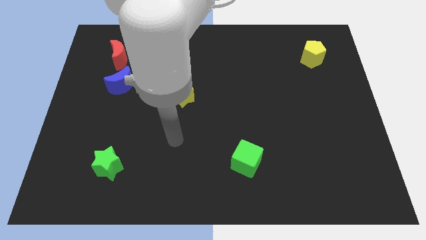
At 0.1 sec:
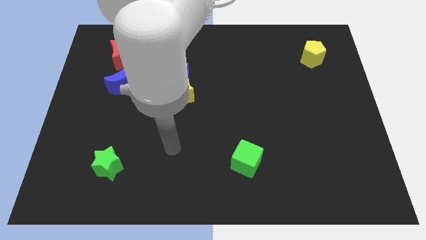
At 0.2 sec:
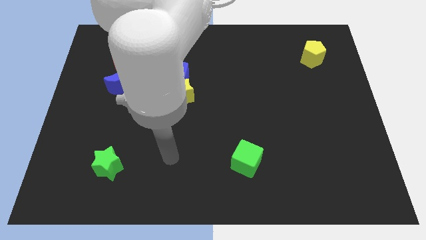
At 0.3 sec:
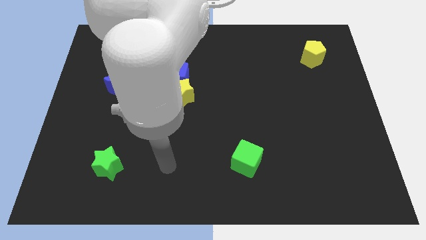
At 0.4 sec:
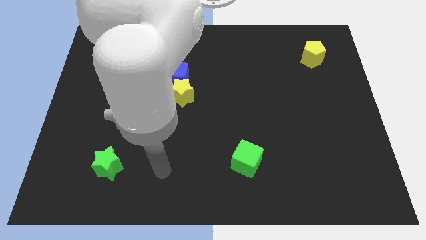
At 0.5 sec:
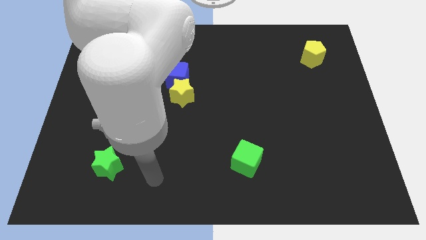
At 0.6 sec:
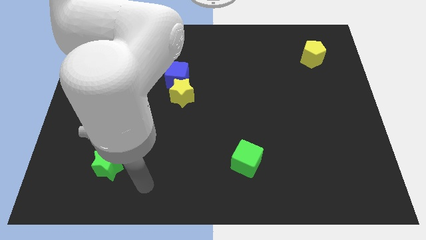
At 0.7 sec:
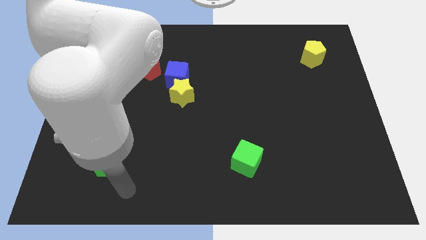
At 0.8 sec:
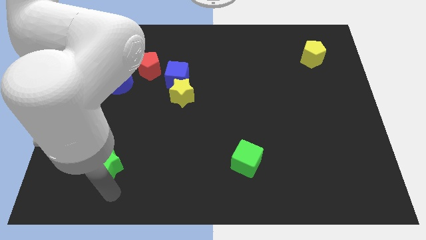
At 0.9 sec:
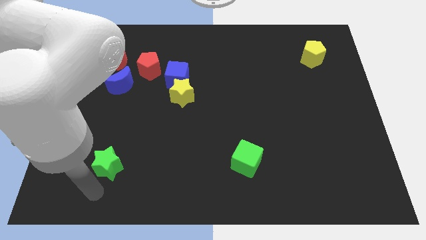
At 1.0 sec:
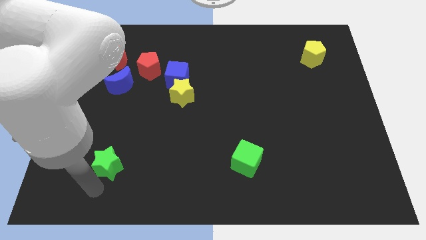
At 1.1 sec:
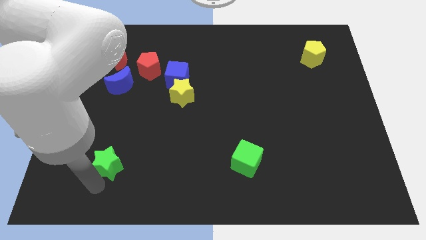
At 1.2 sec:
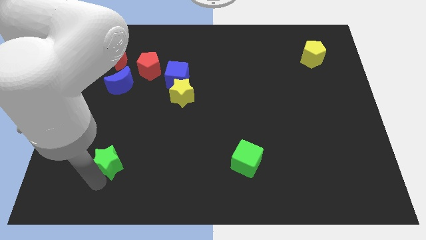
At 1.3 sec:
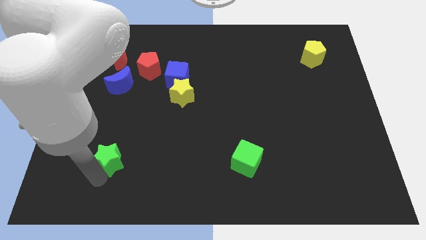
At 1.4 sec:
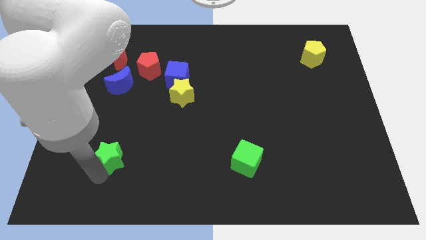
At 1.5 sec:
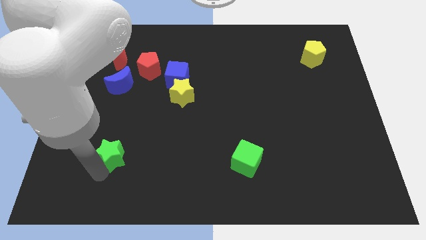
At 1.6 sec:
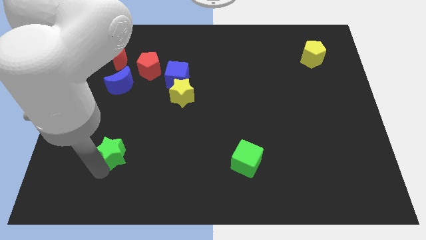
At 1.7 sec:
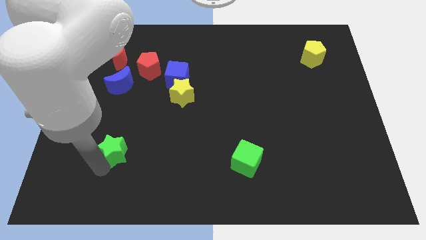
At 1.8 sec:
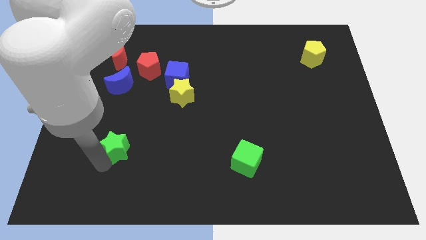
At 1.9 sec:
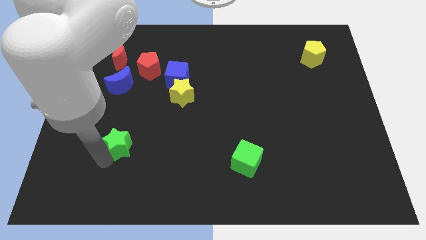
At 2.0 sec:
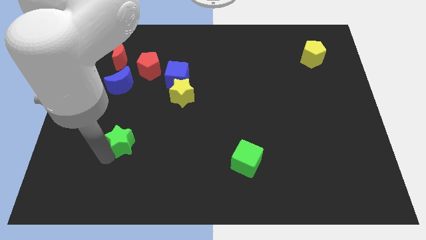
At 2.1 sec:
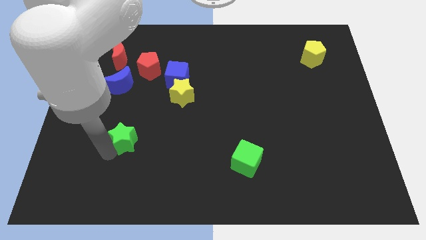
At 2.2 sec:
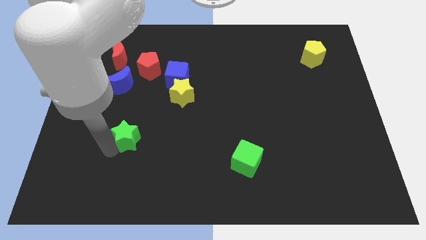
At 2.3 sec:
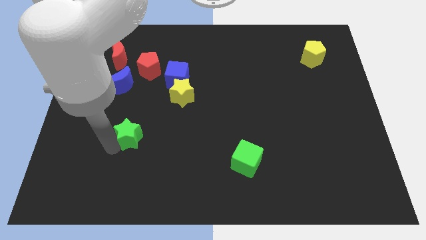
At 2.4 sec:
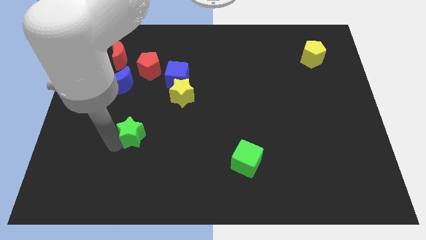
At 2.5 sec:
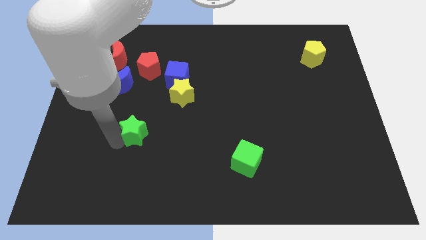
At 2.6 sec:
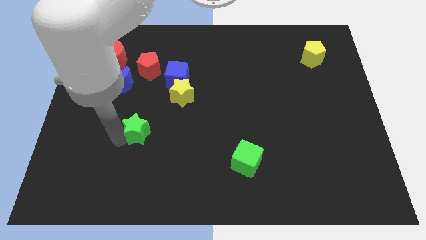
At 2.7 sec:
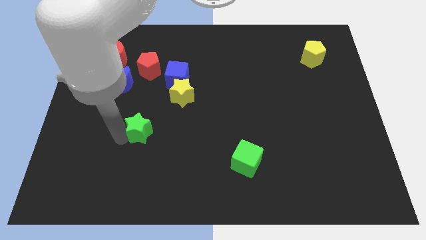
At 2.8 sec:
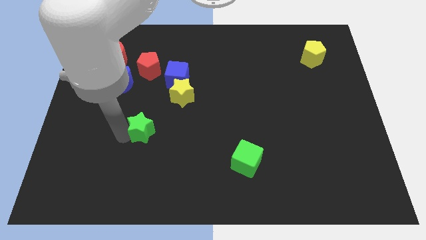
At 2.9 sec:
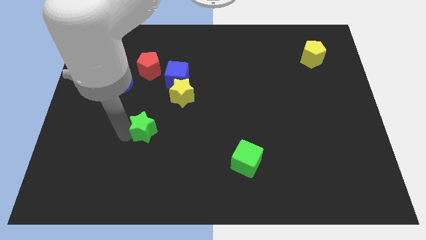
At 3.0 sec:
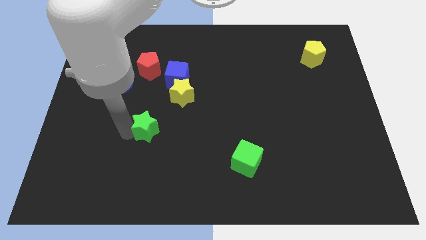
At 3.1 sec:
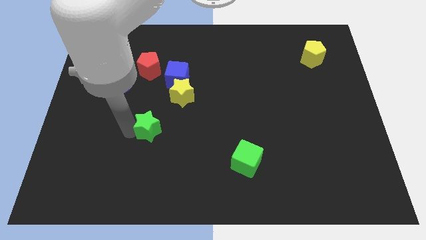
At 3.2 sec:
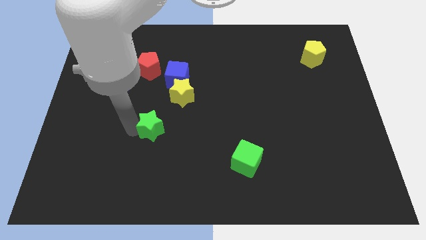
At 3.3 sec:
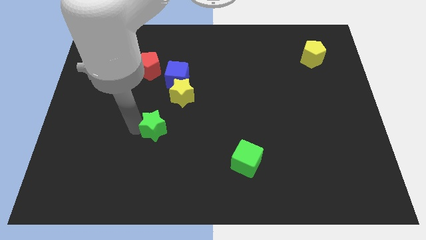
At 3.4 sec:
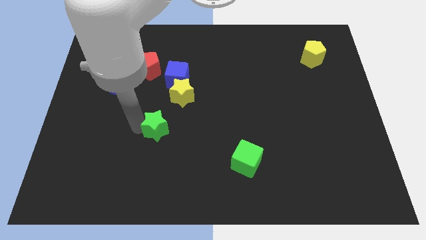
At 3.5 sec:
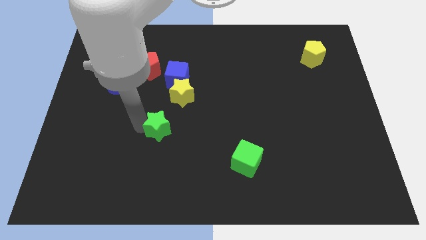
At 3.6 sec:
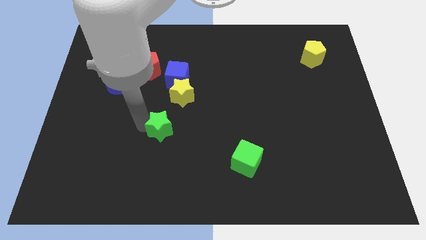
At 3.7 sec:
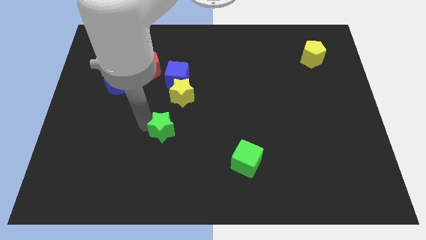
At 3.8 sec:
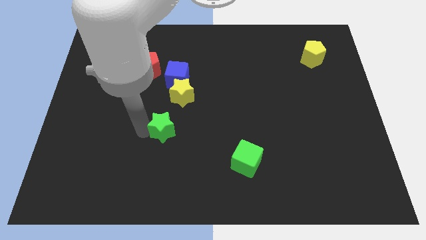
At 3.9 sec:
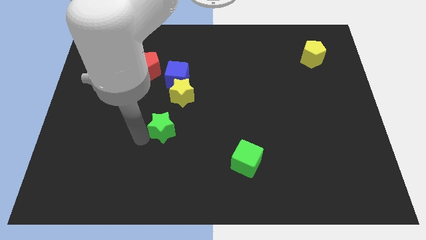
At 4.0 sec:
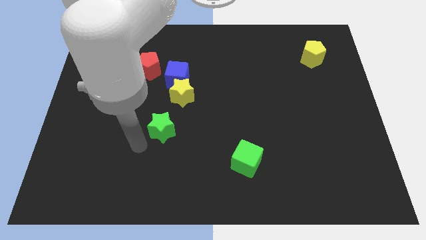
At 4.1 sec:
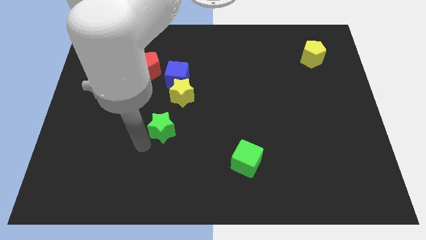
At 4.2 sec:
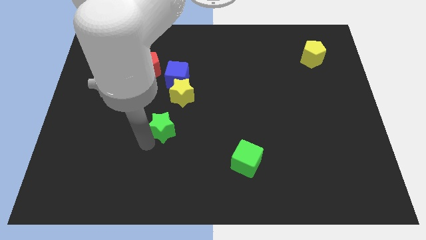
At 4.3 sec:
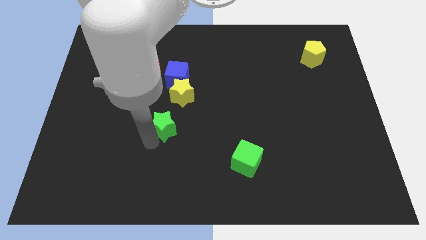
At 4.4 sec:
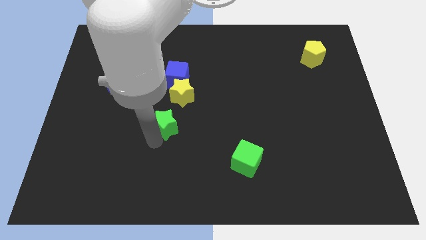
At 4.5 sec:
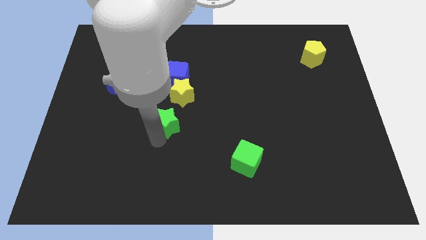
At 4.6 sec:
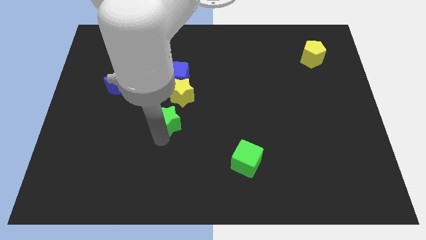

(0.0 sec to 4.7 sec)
push the green star to the middle of the board

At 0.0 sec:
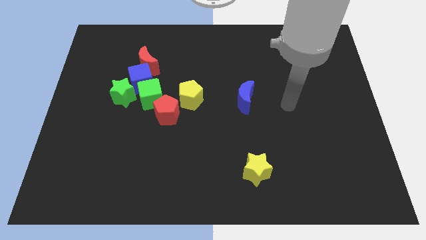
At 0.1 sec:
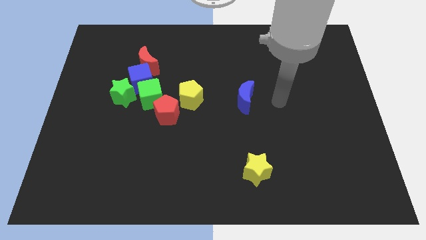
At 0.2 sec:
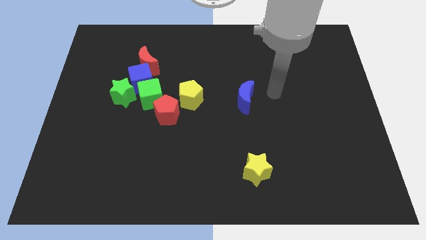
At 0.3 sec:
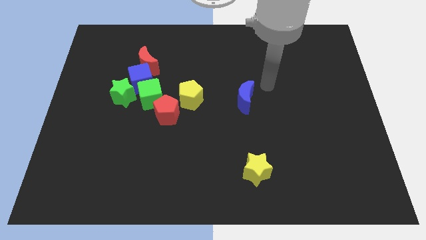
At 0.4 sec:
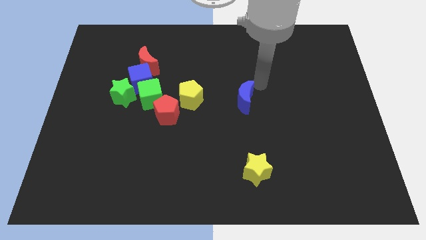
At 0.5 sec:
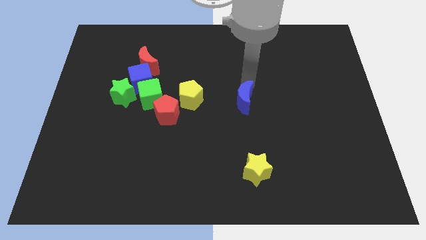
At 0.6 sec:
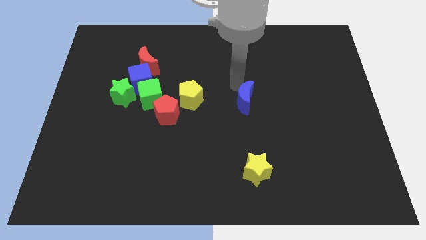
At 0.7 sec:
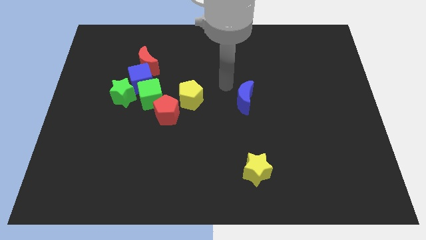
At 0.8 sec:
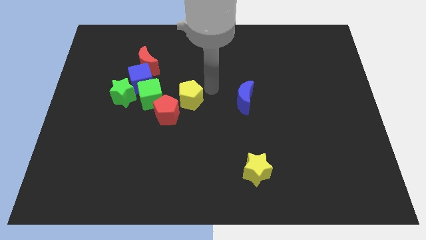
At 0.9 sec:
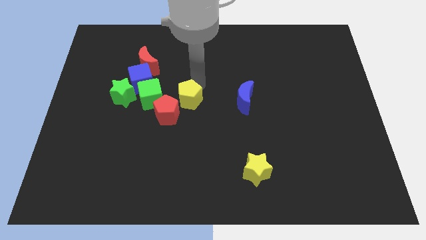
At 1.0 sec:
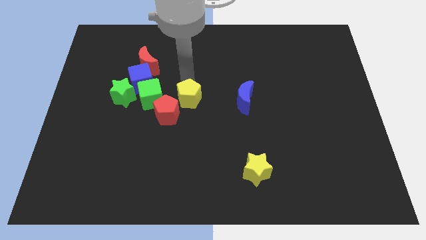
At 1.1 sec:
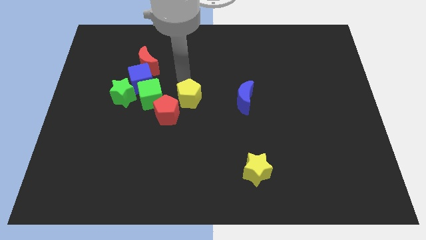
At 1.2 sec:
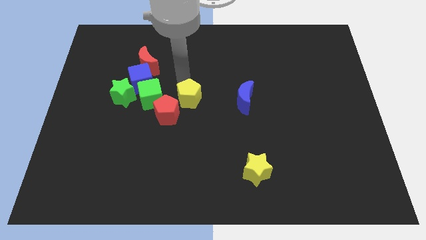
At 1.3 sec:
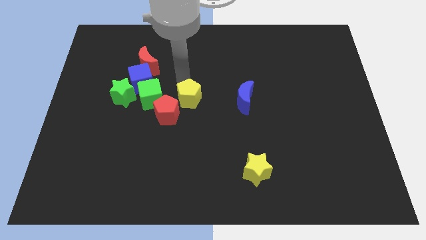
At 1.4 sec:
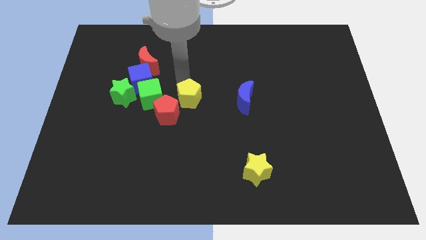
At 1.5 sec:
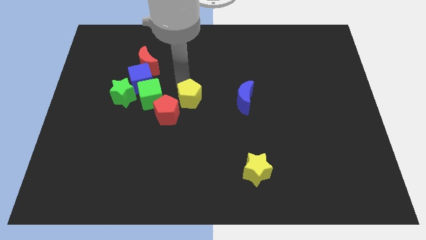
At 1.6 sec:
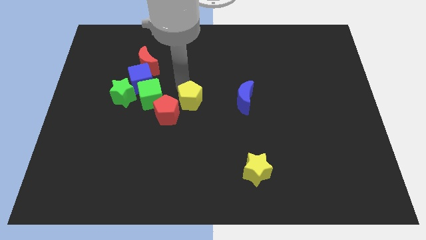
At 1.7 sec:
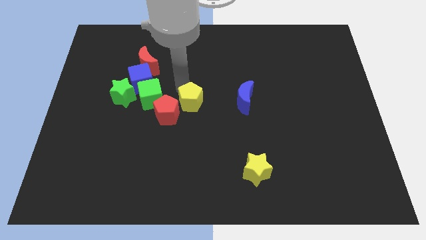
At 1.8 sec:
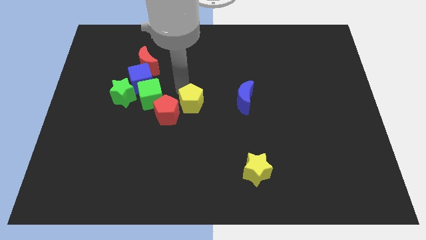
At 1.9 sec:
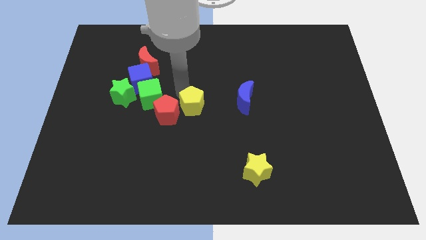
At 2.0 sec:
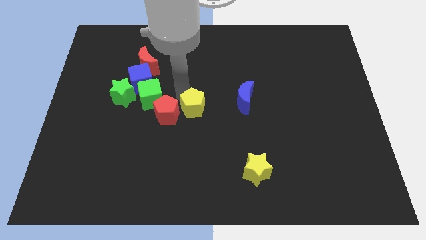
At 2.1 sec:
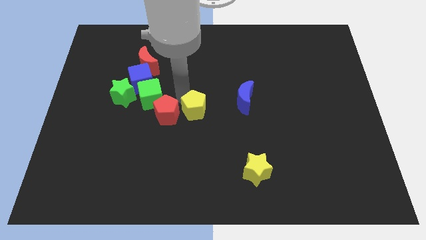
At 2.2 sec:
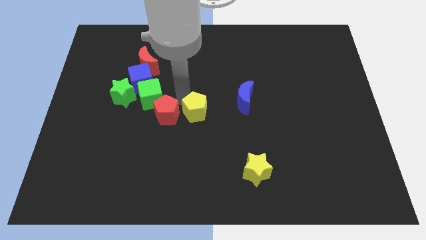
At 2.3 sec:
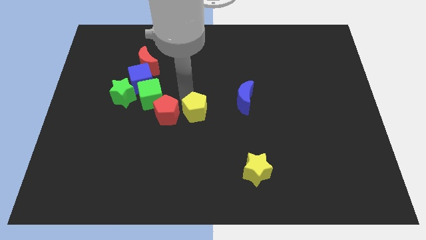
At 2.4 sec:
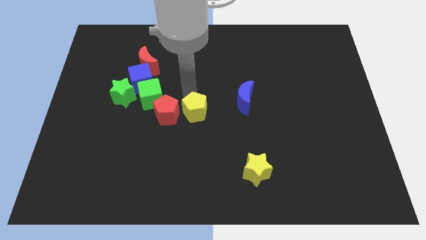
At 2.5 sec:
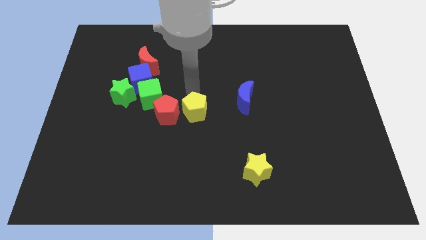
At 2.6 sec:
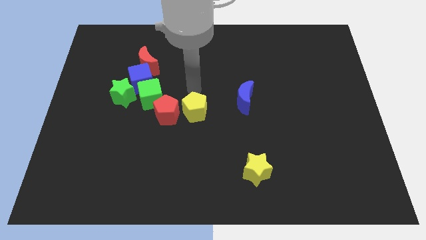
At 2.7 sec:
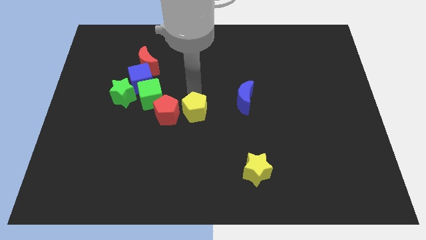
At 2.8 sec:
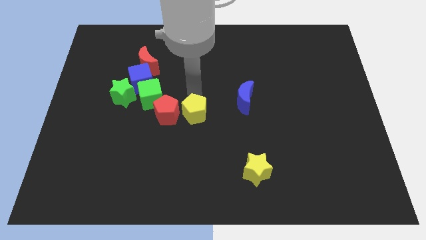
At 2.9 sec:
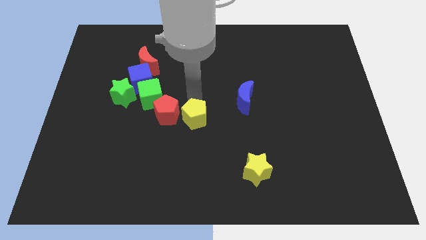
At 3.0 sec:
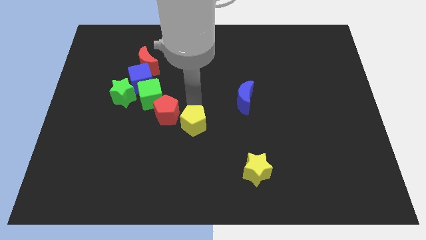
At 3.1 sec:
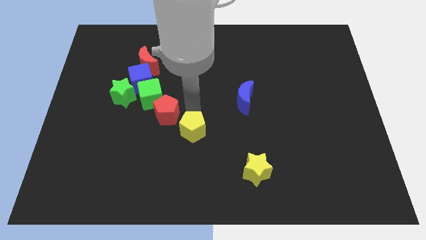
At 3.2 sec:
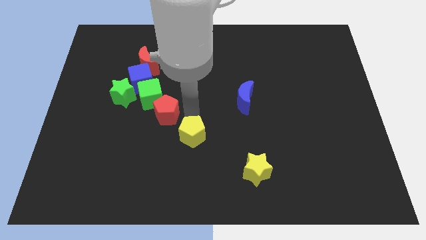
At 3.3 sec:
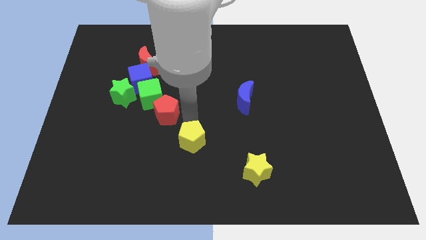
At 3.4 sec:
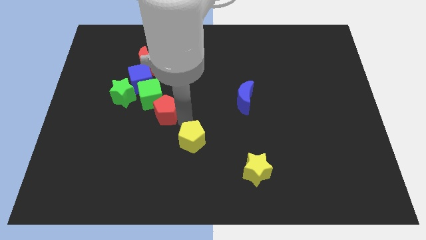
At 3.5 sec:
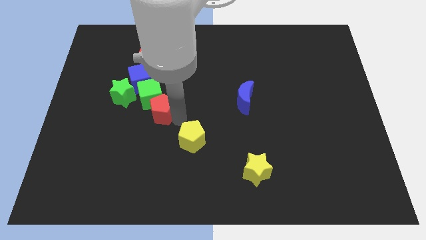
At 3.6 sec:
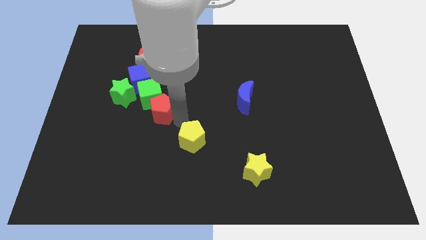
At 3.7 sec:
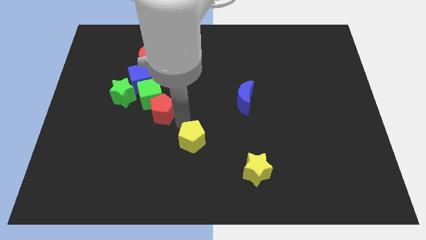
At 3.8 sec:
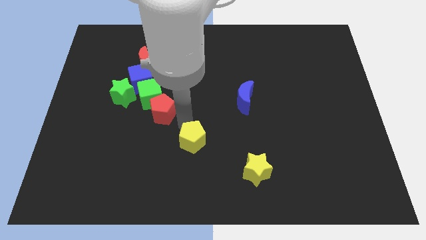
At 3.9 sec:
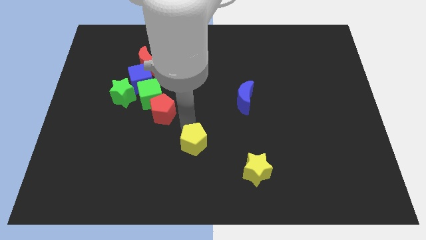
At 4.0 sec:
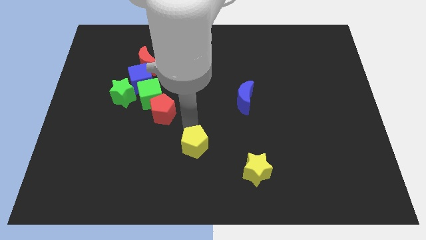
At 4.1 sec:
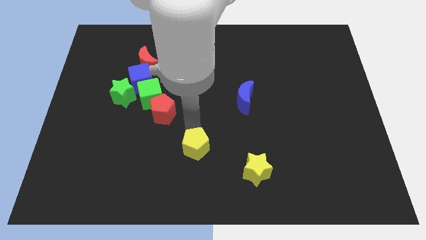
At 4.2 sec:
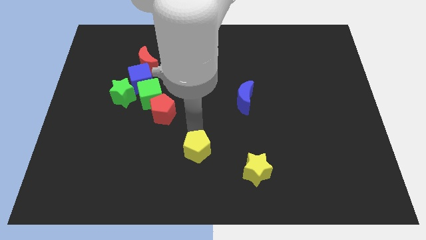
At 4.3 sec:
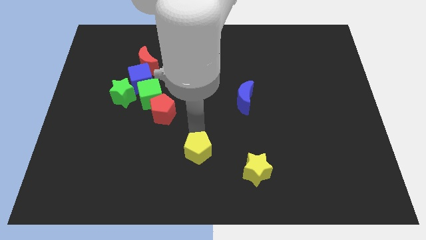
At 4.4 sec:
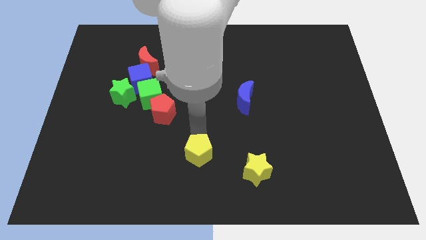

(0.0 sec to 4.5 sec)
slide the yellow pentagon to the bottom
